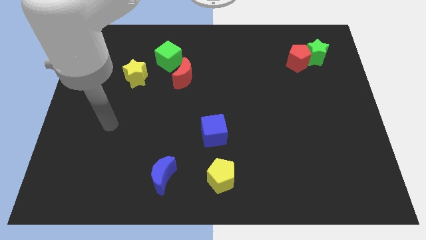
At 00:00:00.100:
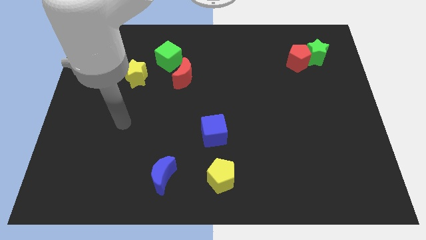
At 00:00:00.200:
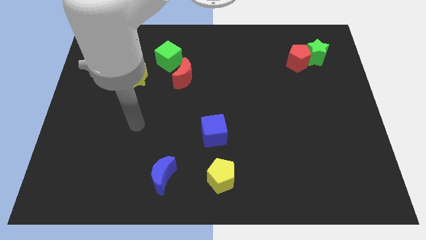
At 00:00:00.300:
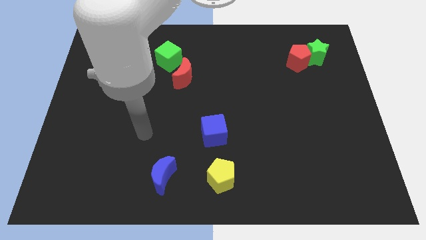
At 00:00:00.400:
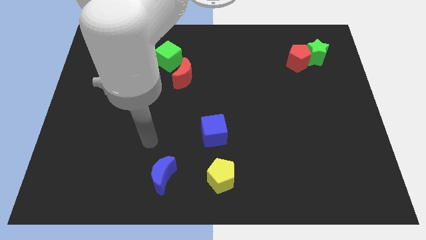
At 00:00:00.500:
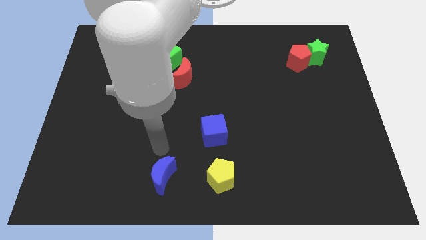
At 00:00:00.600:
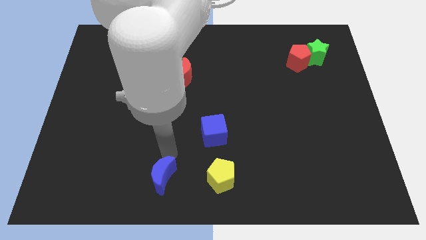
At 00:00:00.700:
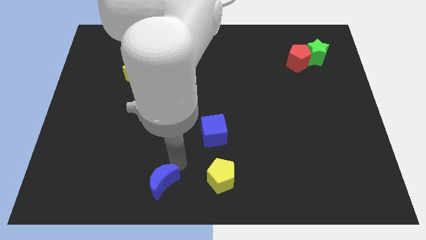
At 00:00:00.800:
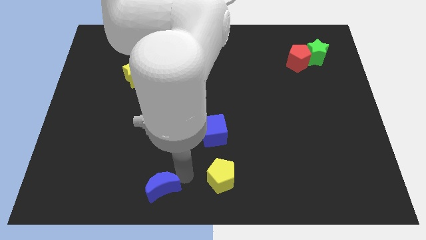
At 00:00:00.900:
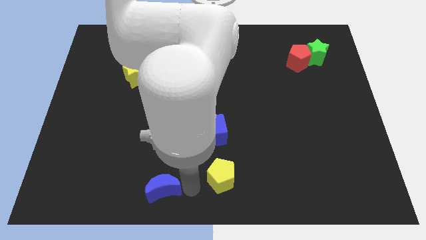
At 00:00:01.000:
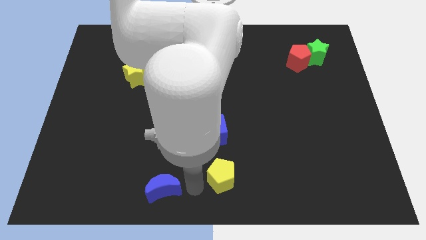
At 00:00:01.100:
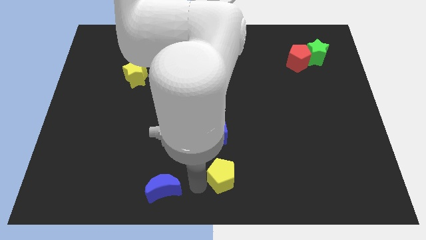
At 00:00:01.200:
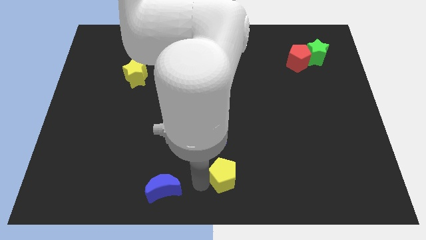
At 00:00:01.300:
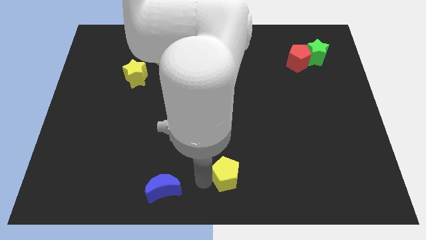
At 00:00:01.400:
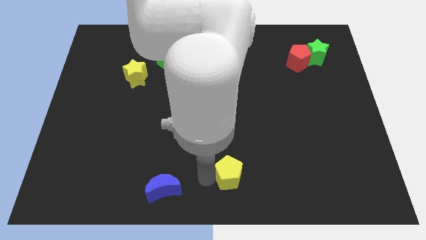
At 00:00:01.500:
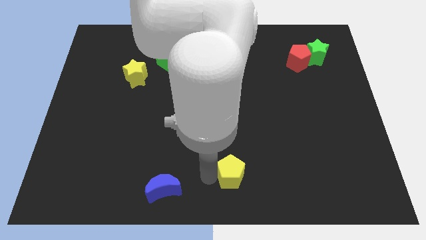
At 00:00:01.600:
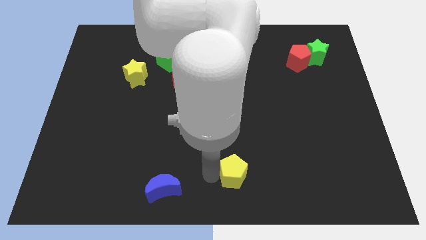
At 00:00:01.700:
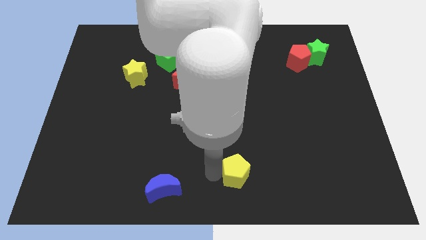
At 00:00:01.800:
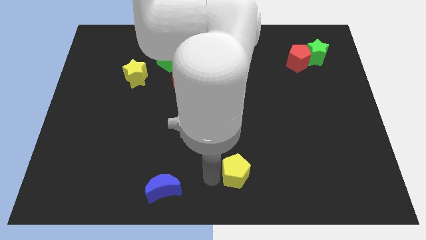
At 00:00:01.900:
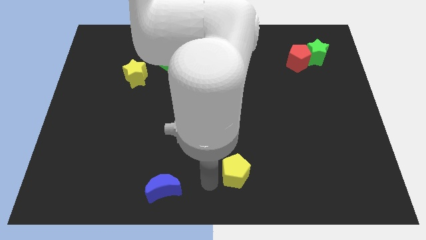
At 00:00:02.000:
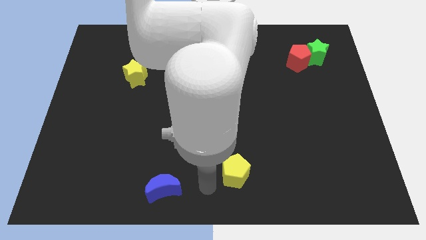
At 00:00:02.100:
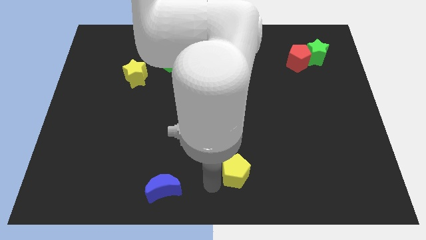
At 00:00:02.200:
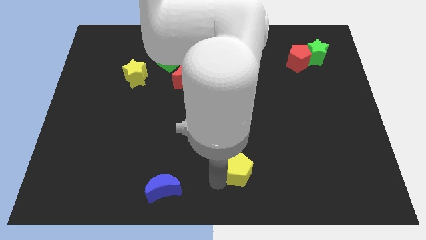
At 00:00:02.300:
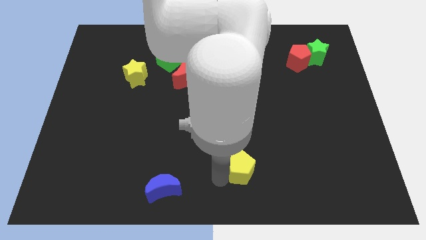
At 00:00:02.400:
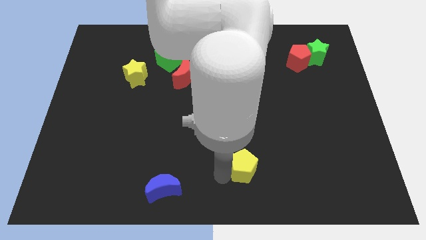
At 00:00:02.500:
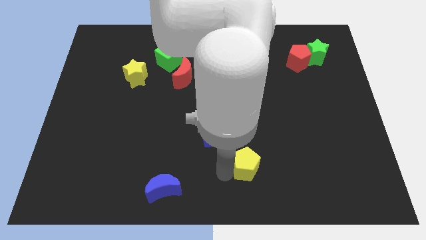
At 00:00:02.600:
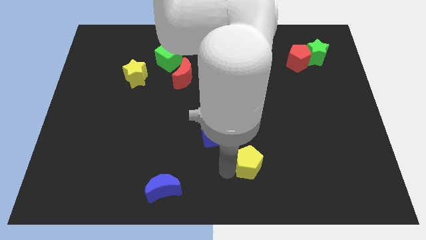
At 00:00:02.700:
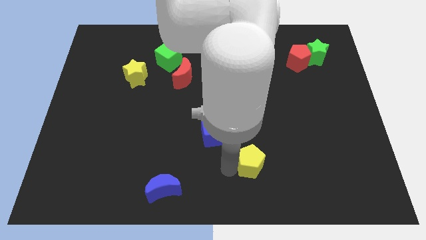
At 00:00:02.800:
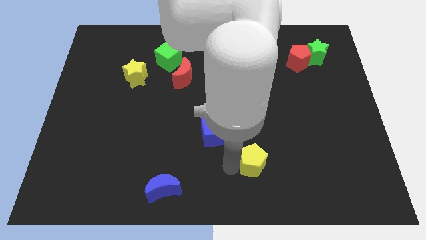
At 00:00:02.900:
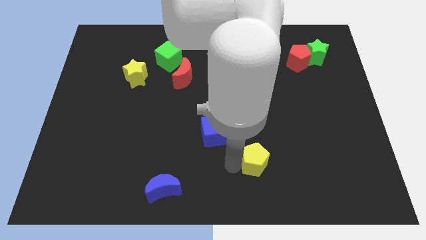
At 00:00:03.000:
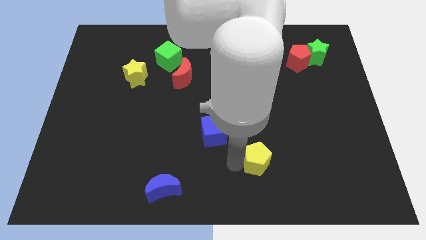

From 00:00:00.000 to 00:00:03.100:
move the yellow pentagon somewhat right

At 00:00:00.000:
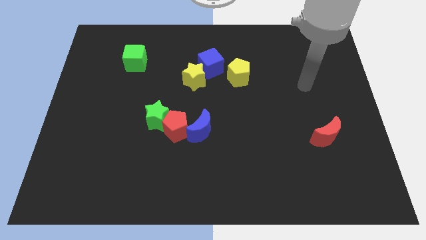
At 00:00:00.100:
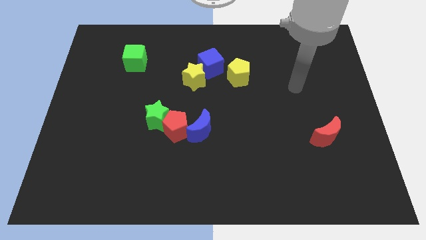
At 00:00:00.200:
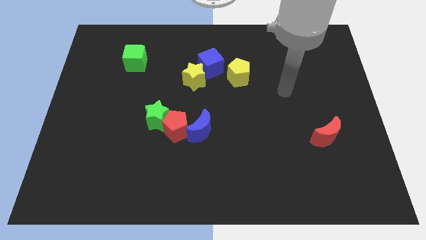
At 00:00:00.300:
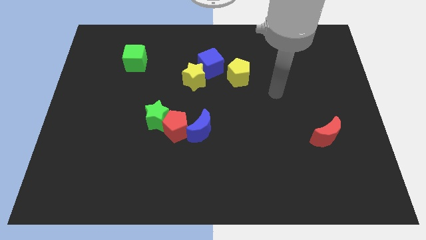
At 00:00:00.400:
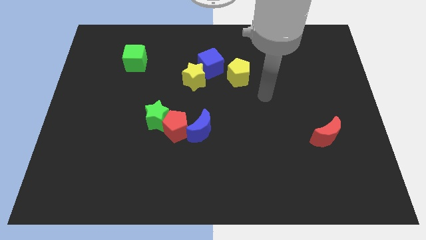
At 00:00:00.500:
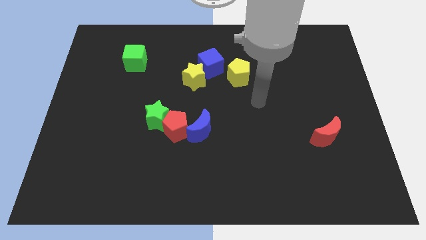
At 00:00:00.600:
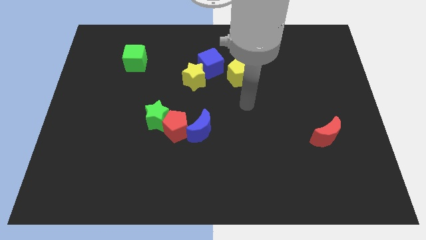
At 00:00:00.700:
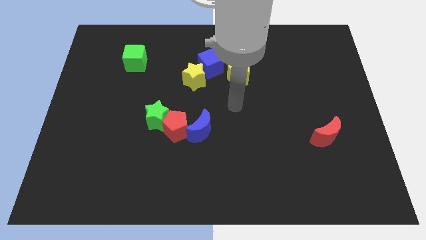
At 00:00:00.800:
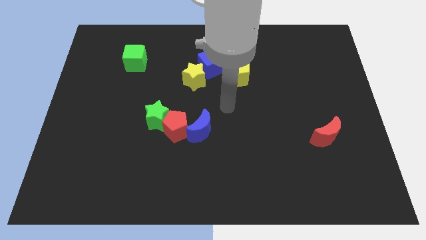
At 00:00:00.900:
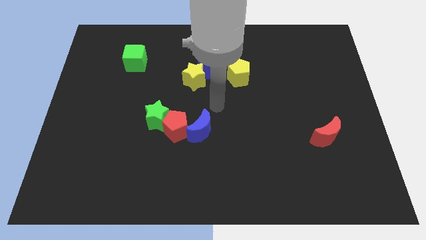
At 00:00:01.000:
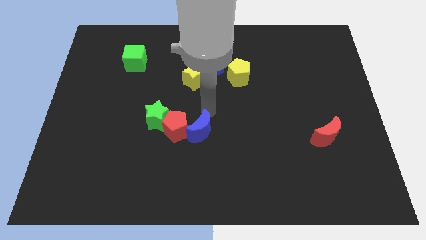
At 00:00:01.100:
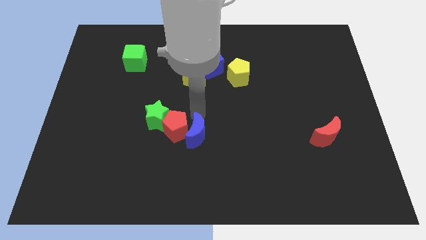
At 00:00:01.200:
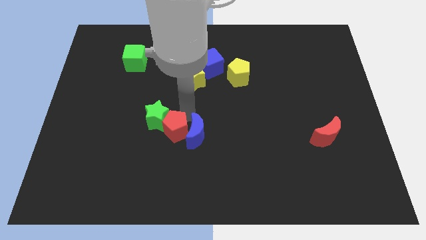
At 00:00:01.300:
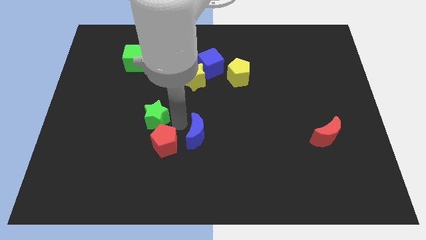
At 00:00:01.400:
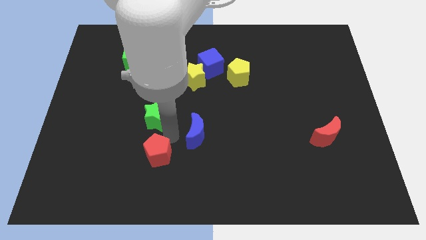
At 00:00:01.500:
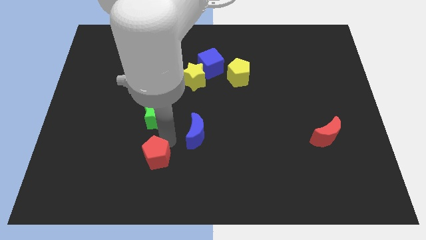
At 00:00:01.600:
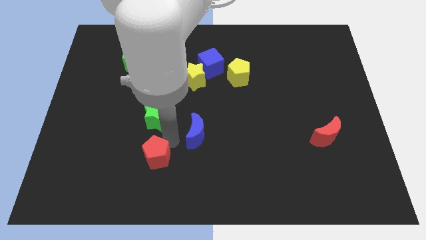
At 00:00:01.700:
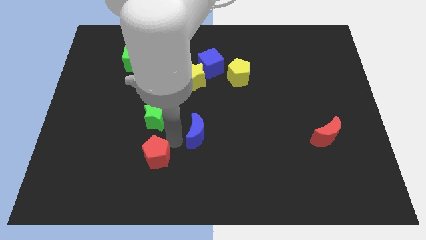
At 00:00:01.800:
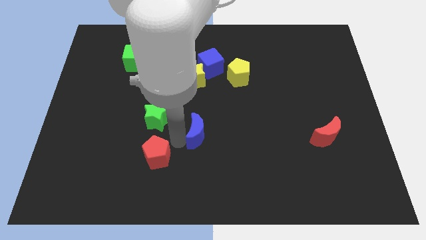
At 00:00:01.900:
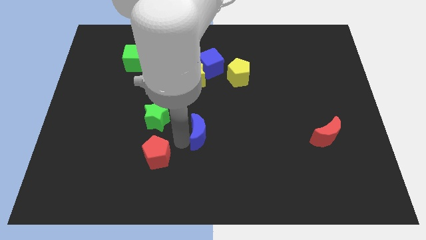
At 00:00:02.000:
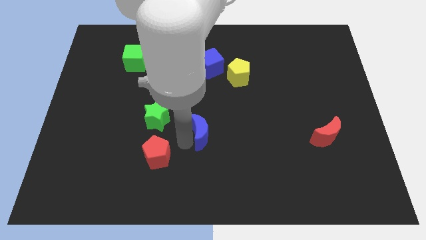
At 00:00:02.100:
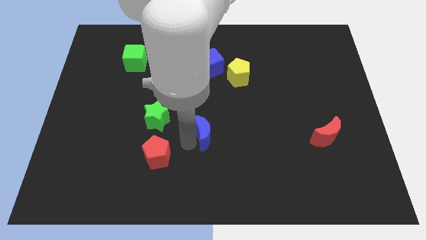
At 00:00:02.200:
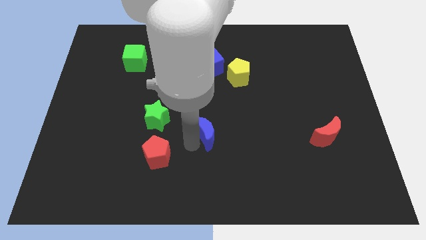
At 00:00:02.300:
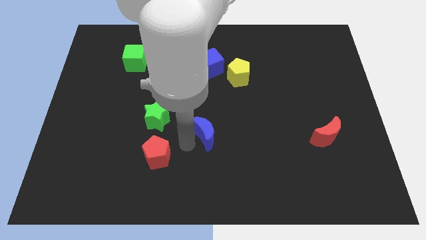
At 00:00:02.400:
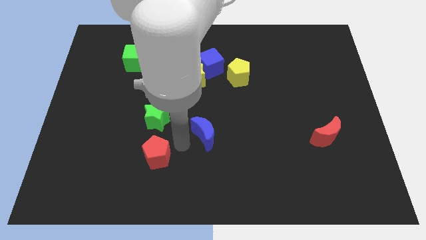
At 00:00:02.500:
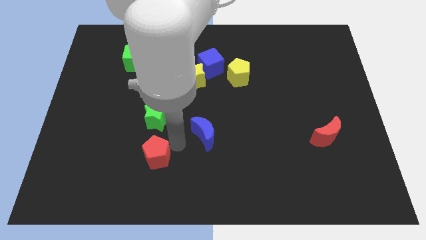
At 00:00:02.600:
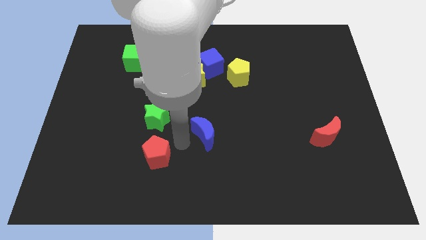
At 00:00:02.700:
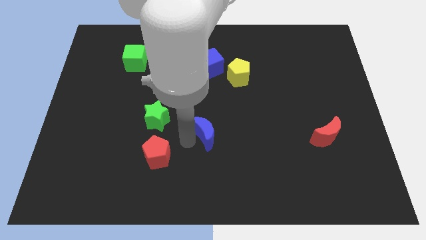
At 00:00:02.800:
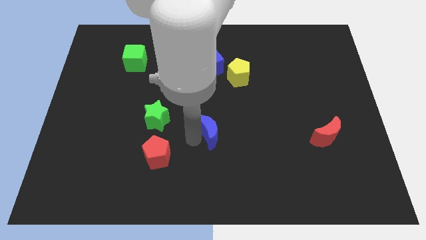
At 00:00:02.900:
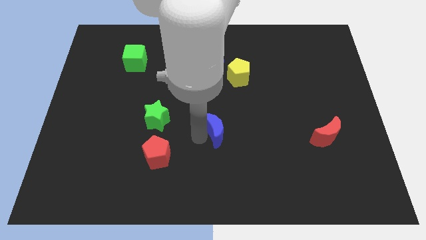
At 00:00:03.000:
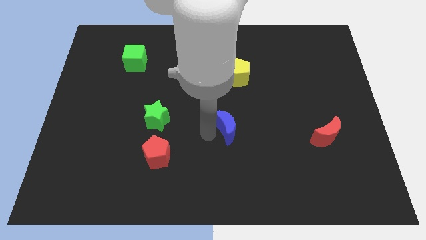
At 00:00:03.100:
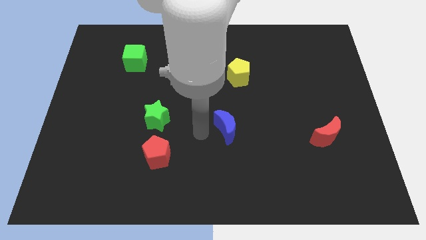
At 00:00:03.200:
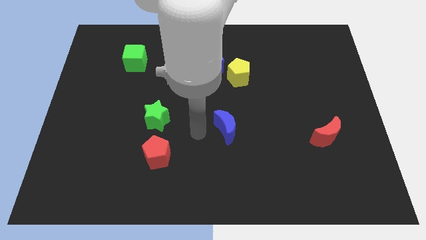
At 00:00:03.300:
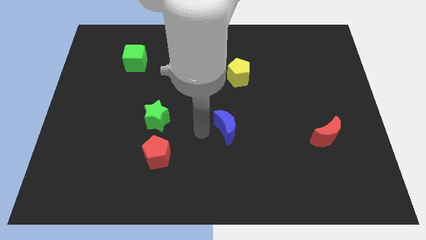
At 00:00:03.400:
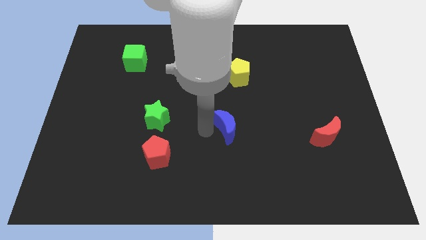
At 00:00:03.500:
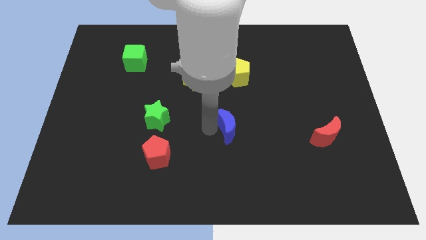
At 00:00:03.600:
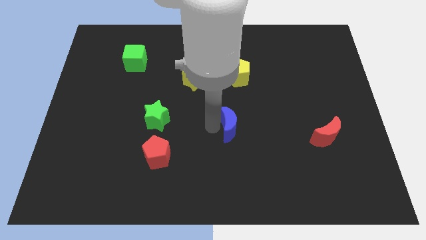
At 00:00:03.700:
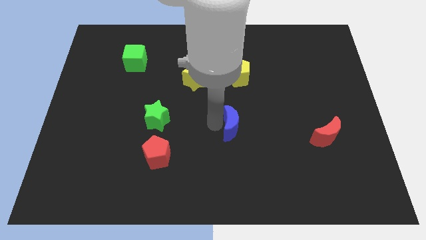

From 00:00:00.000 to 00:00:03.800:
push the blue moon a little bit right

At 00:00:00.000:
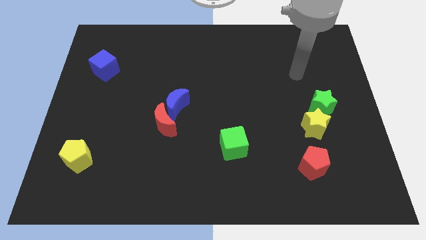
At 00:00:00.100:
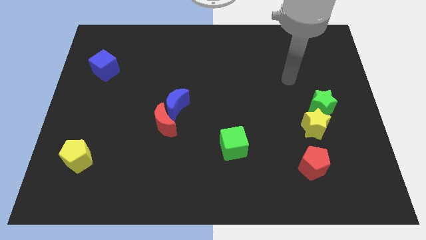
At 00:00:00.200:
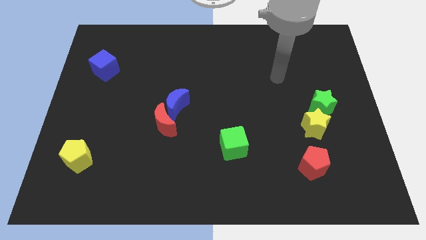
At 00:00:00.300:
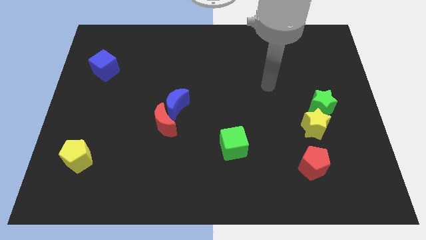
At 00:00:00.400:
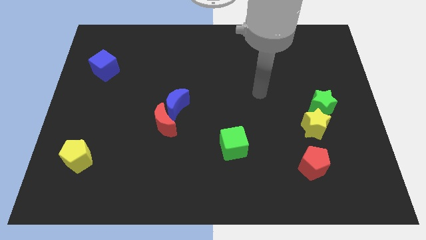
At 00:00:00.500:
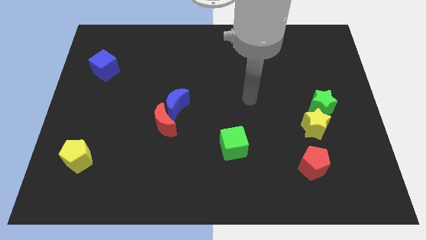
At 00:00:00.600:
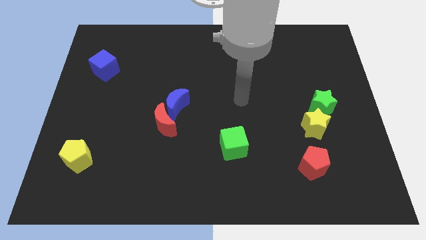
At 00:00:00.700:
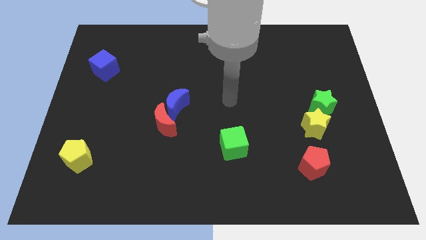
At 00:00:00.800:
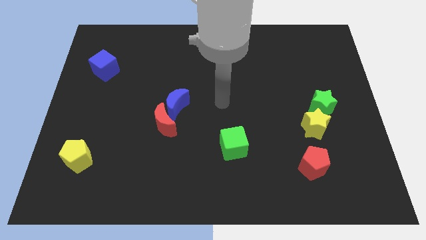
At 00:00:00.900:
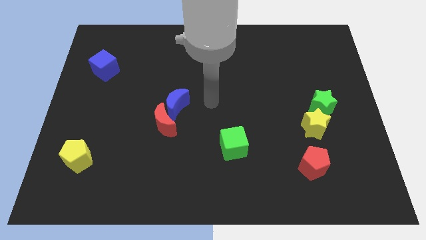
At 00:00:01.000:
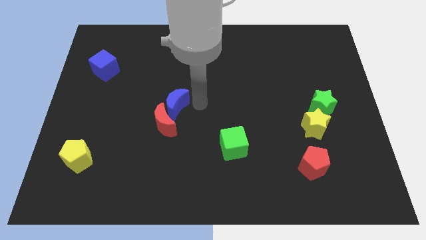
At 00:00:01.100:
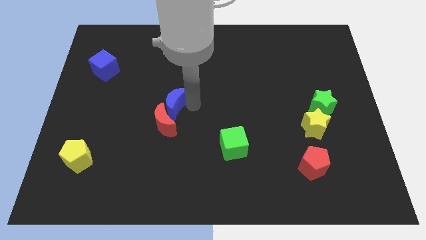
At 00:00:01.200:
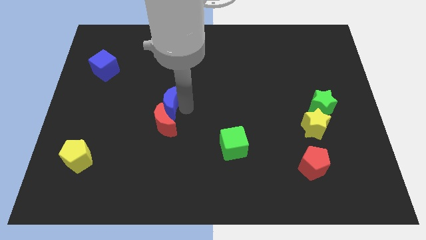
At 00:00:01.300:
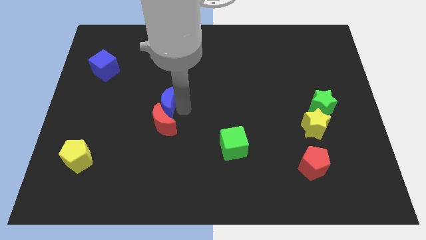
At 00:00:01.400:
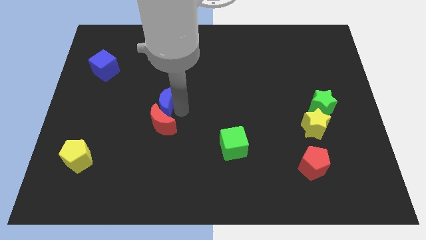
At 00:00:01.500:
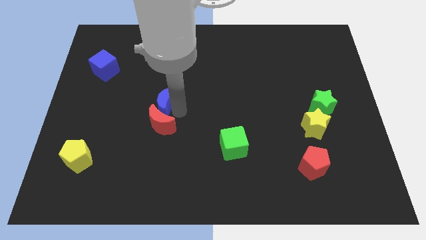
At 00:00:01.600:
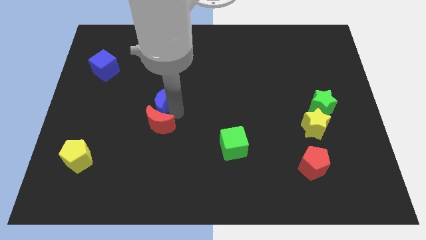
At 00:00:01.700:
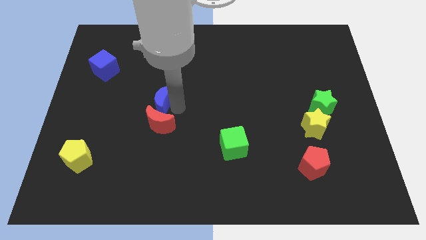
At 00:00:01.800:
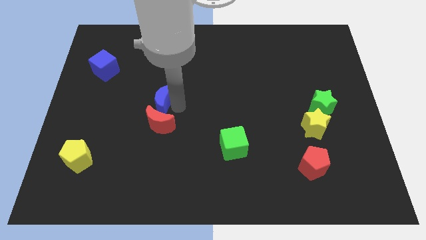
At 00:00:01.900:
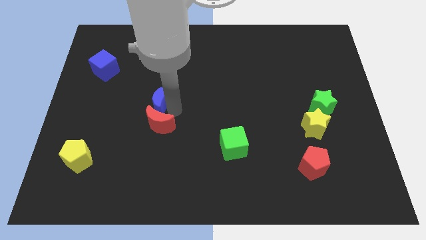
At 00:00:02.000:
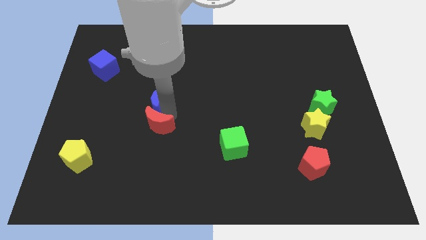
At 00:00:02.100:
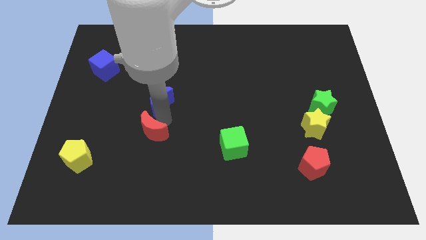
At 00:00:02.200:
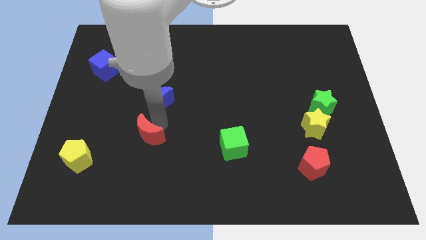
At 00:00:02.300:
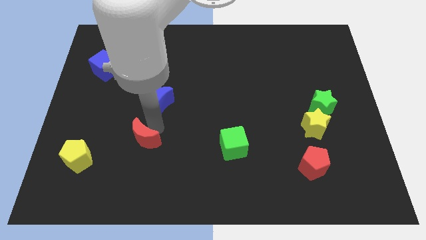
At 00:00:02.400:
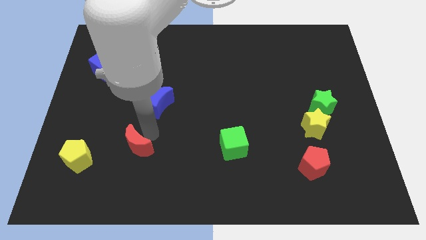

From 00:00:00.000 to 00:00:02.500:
slide the red moon slightly down and to the left
